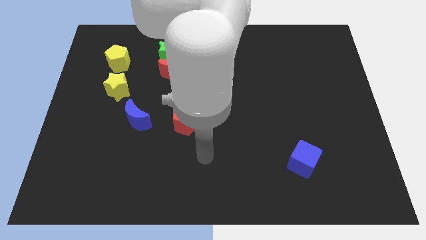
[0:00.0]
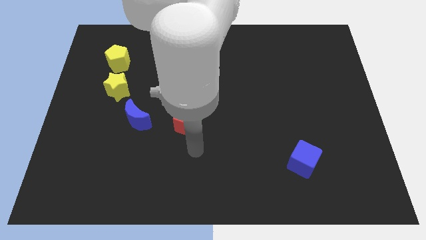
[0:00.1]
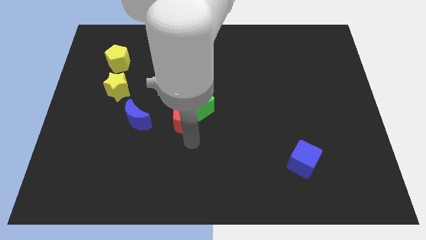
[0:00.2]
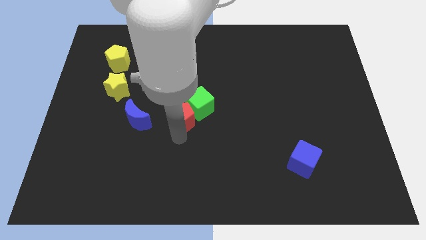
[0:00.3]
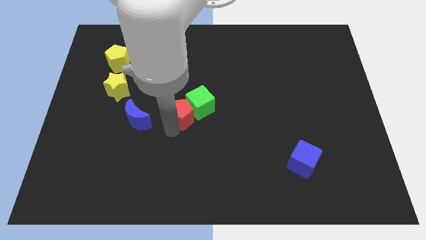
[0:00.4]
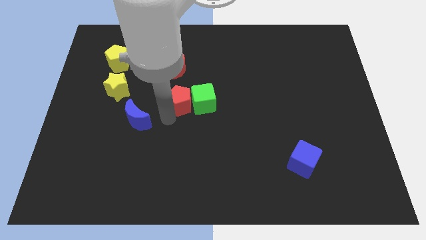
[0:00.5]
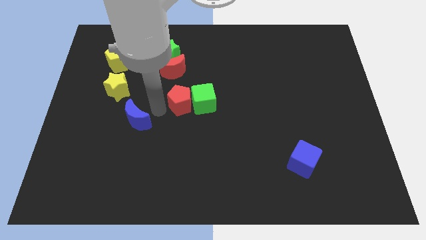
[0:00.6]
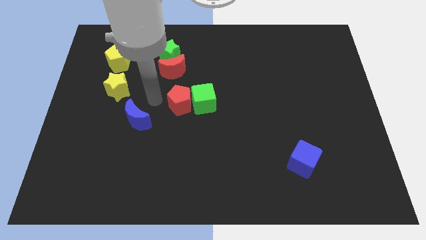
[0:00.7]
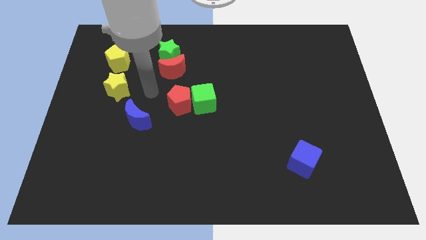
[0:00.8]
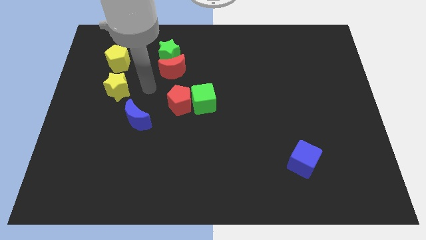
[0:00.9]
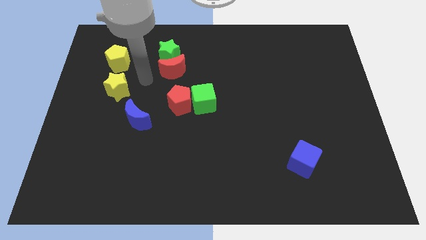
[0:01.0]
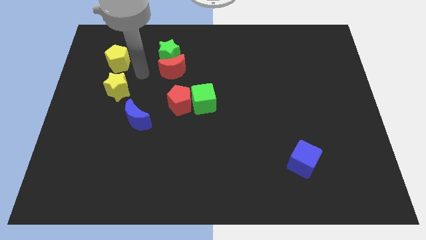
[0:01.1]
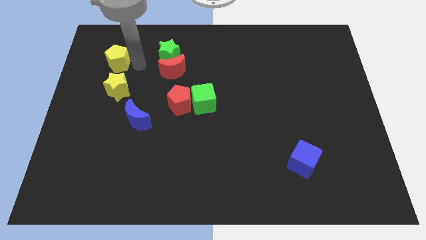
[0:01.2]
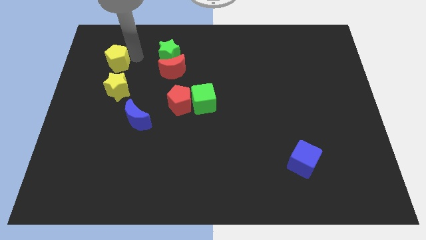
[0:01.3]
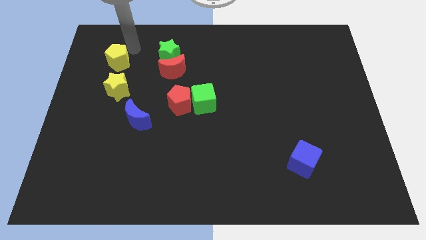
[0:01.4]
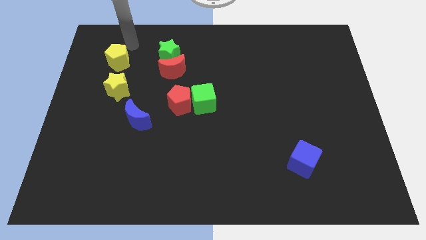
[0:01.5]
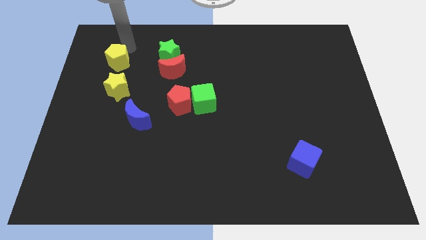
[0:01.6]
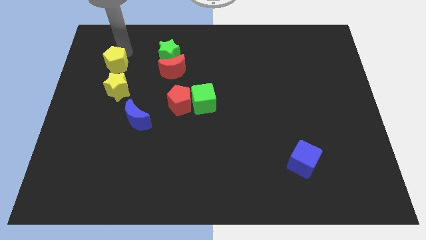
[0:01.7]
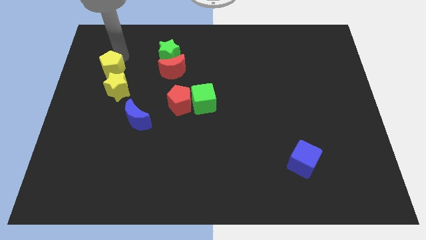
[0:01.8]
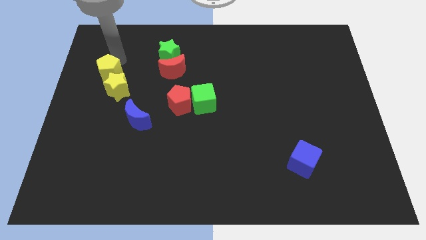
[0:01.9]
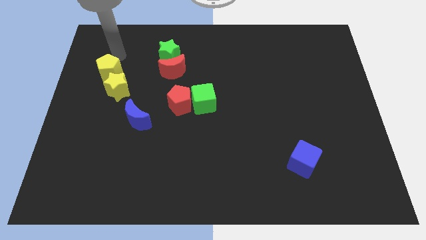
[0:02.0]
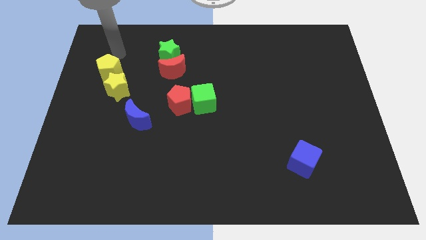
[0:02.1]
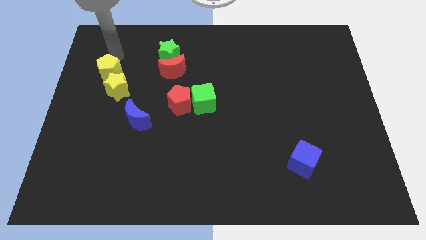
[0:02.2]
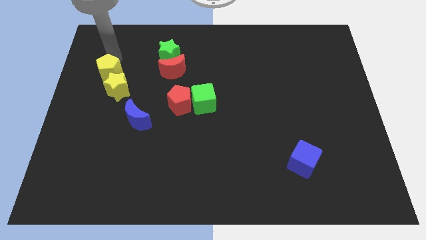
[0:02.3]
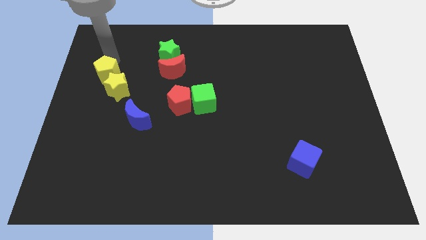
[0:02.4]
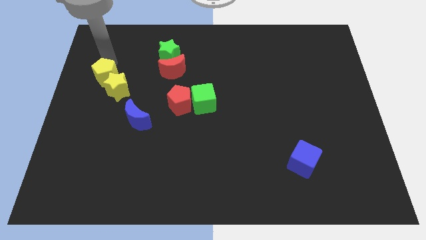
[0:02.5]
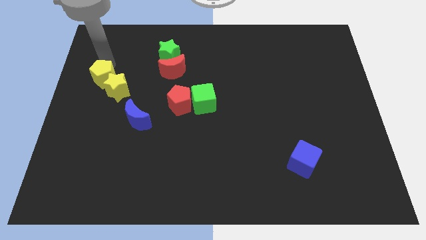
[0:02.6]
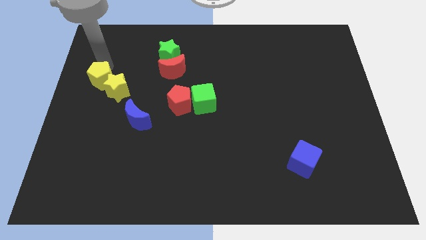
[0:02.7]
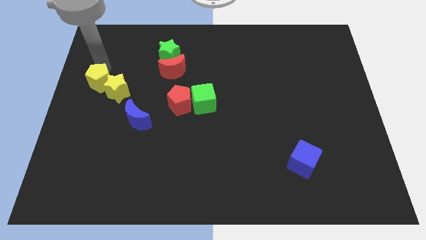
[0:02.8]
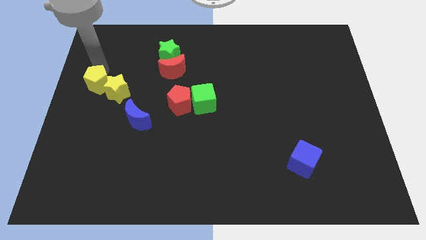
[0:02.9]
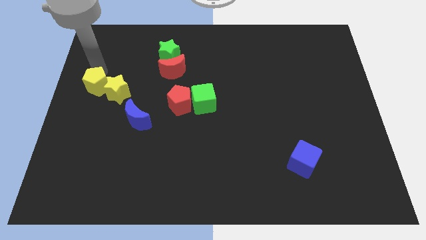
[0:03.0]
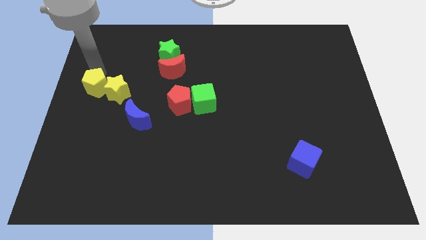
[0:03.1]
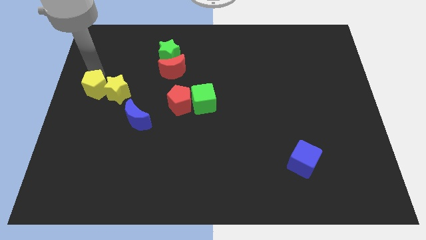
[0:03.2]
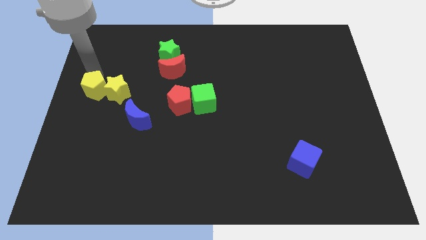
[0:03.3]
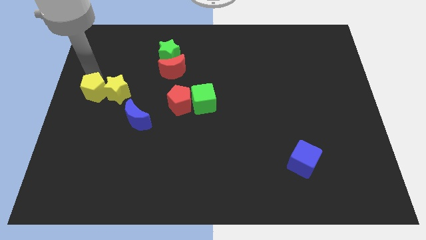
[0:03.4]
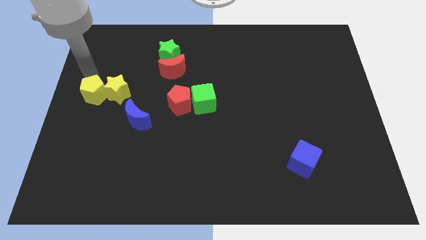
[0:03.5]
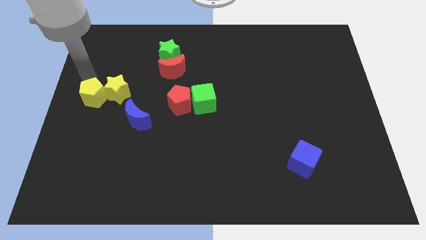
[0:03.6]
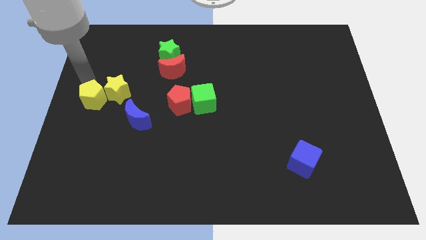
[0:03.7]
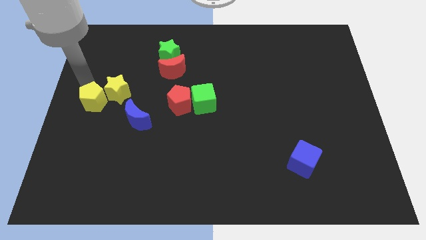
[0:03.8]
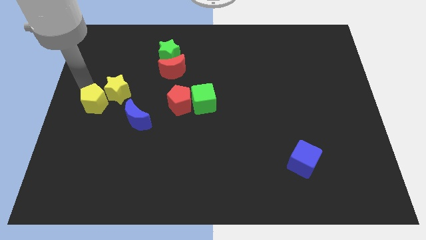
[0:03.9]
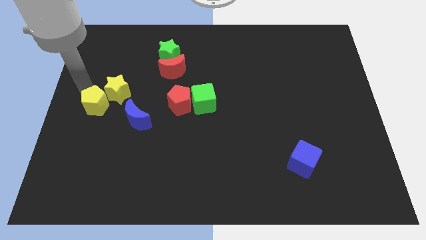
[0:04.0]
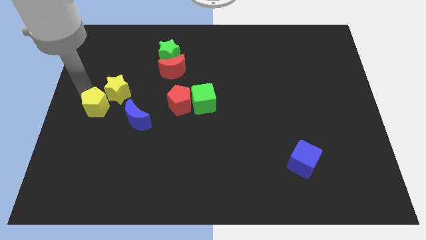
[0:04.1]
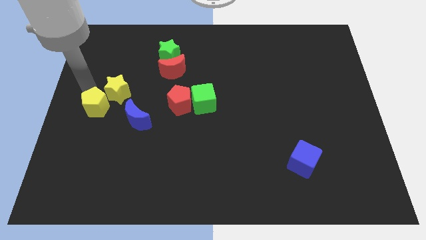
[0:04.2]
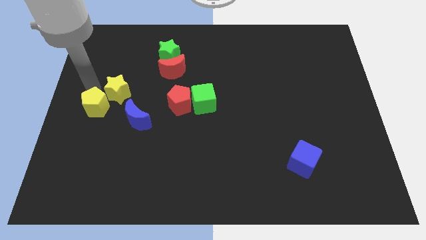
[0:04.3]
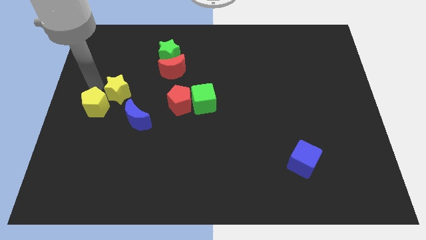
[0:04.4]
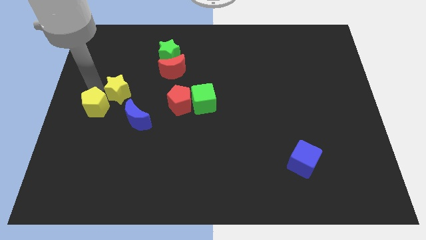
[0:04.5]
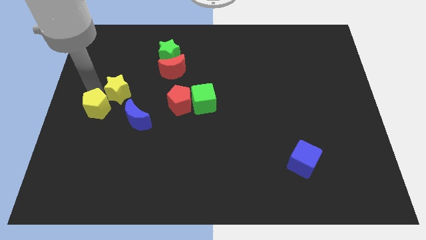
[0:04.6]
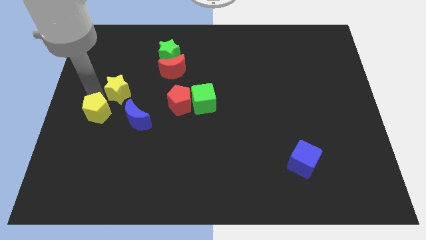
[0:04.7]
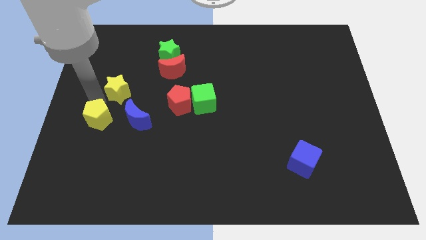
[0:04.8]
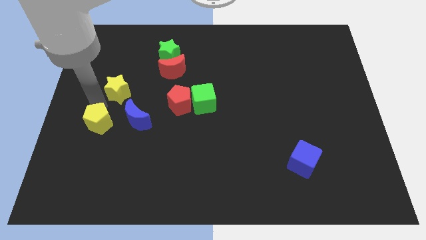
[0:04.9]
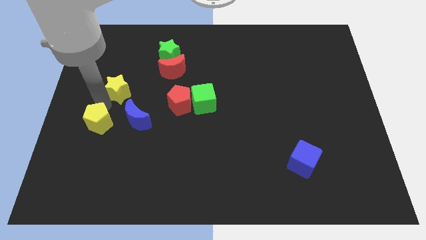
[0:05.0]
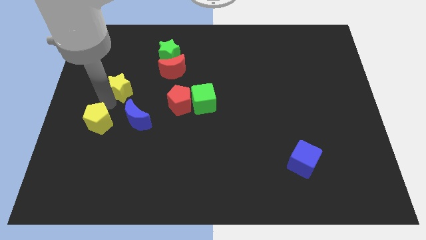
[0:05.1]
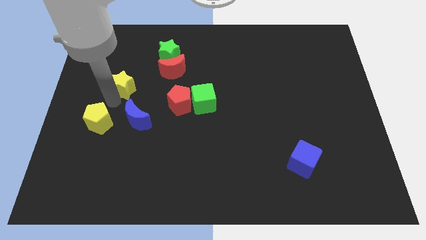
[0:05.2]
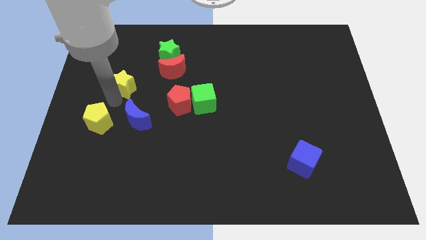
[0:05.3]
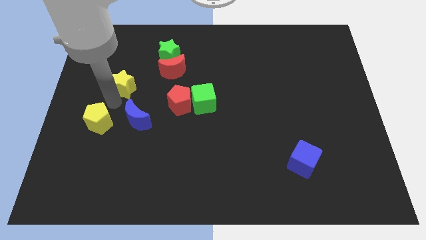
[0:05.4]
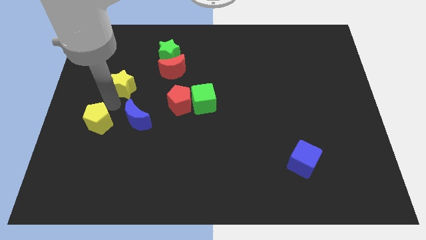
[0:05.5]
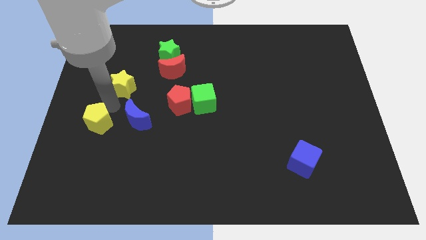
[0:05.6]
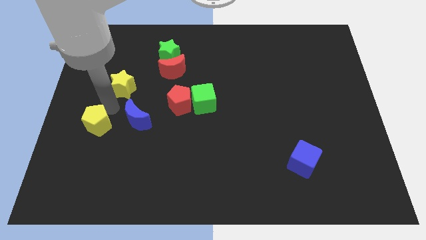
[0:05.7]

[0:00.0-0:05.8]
push the yellow pentagon downwards

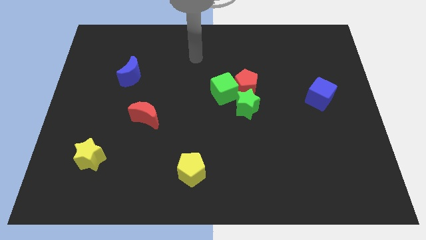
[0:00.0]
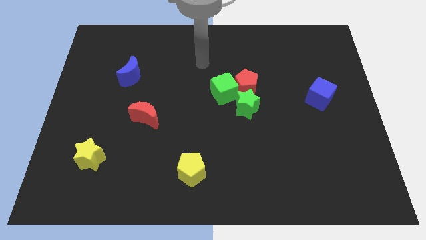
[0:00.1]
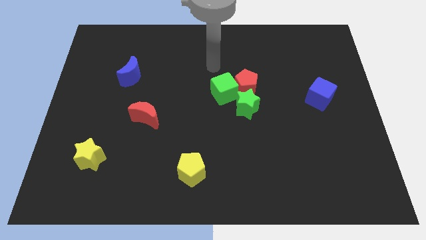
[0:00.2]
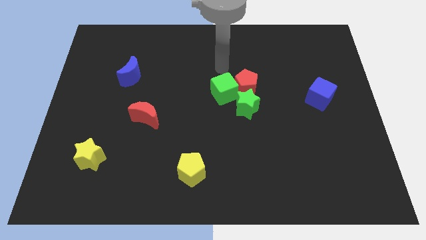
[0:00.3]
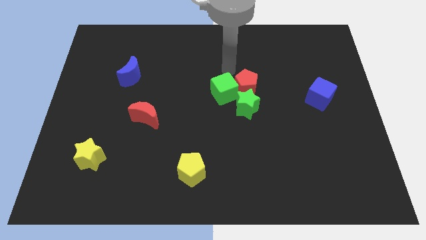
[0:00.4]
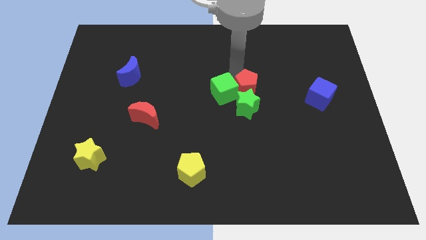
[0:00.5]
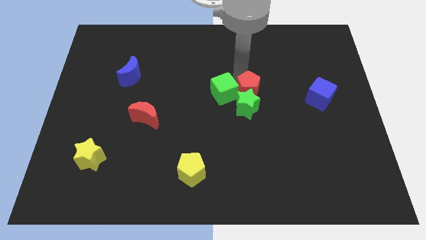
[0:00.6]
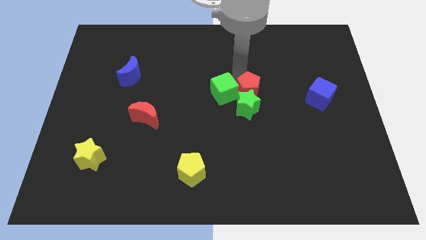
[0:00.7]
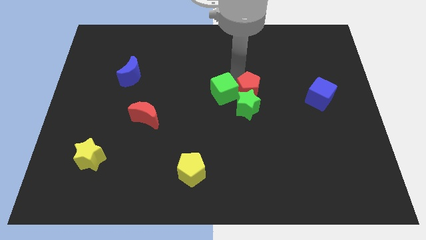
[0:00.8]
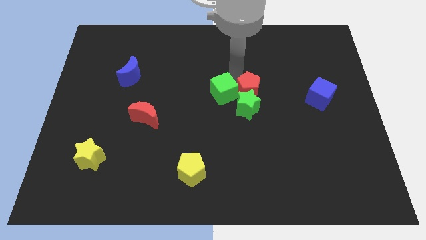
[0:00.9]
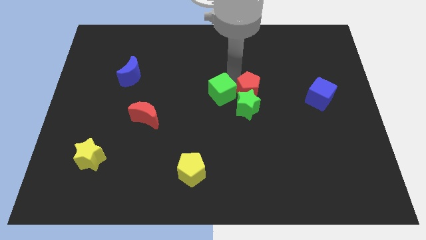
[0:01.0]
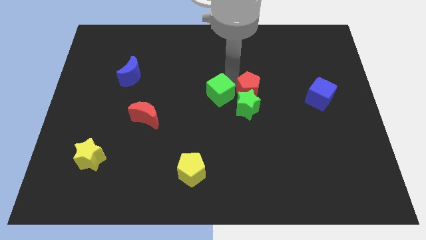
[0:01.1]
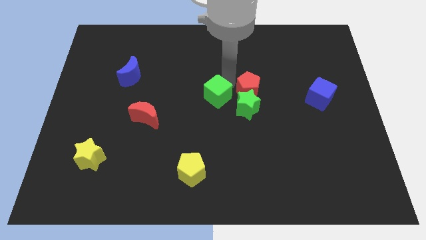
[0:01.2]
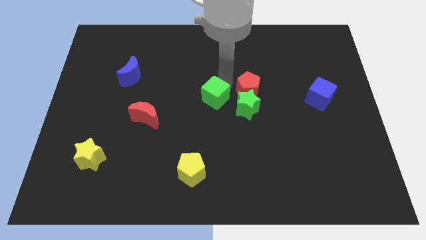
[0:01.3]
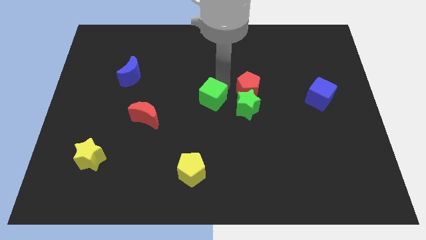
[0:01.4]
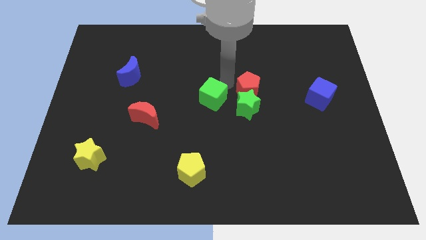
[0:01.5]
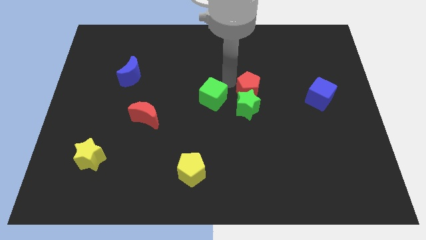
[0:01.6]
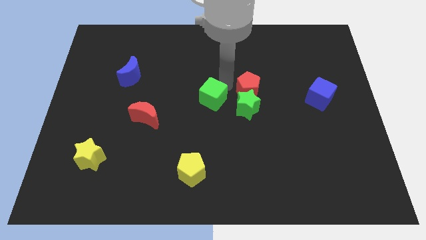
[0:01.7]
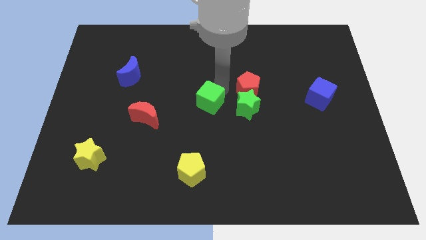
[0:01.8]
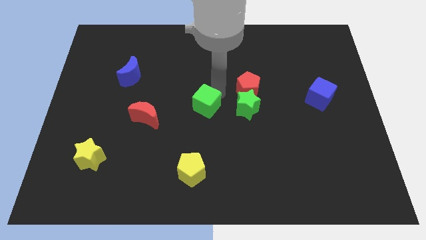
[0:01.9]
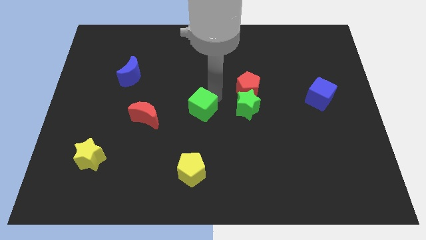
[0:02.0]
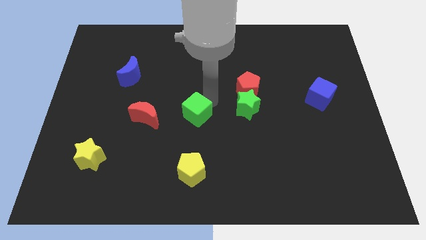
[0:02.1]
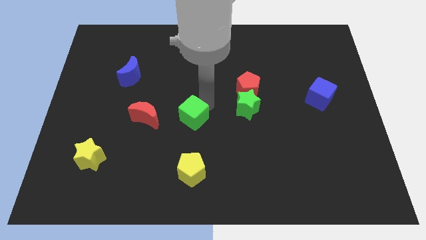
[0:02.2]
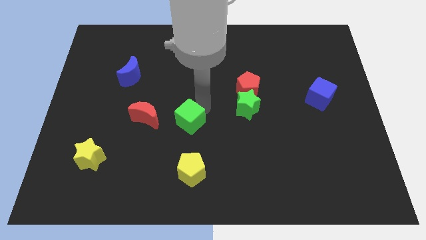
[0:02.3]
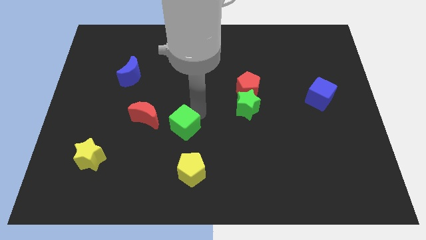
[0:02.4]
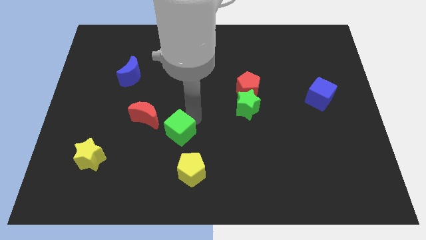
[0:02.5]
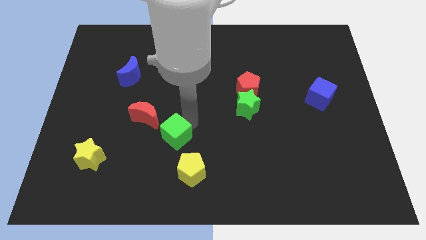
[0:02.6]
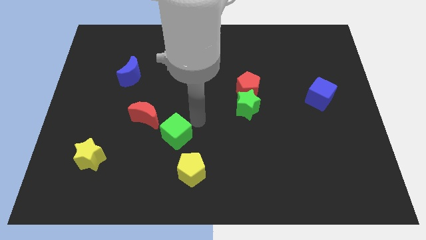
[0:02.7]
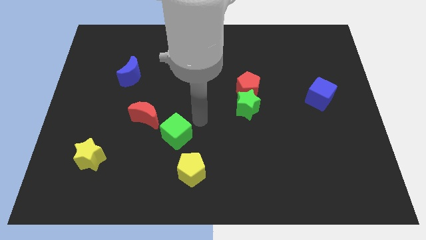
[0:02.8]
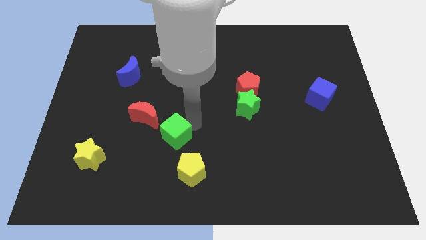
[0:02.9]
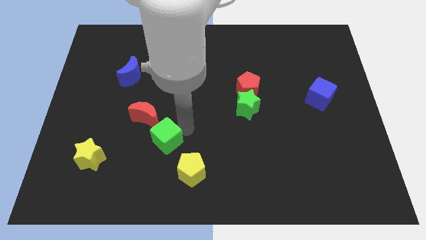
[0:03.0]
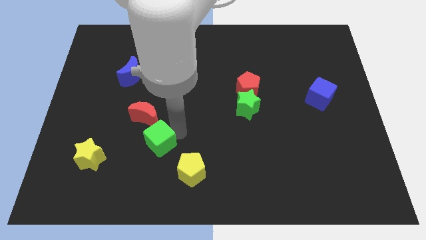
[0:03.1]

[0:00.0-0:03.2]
push the green cube down and then to the left
